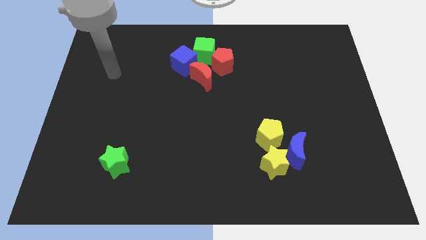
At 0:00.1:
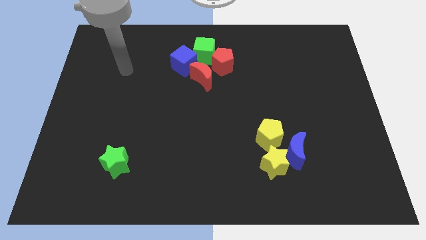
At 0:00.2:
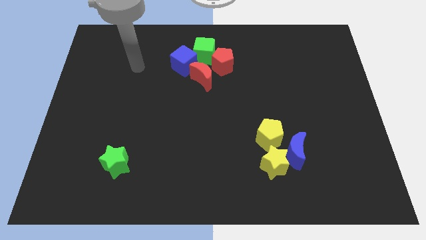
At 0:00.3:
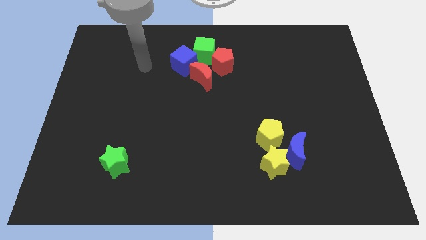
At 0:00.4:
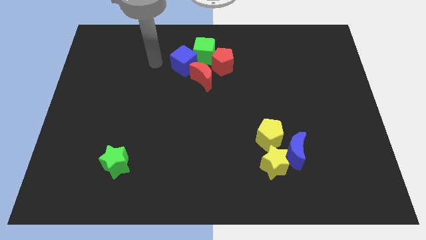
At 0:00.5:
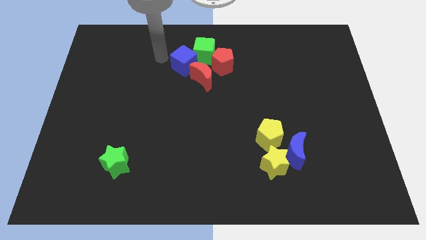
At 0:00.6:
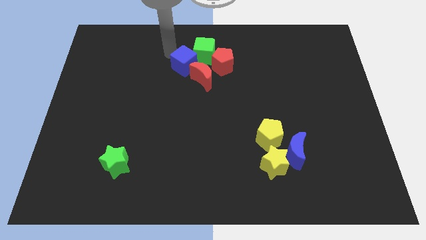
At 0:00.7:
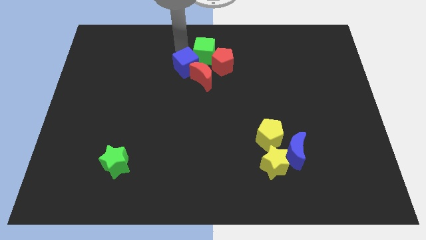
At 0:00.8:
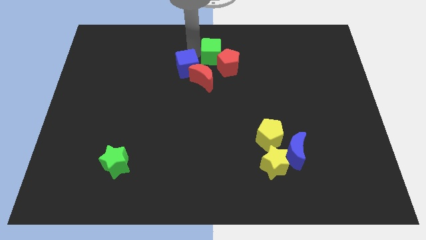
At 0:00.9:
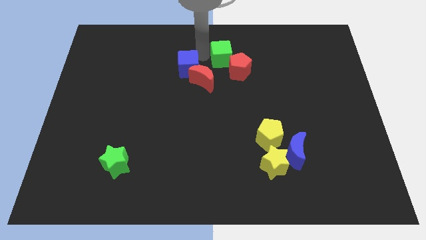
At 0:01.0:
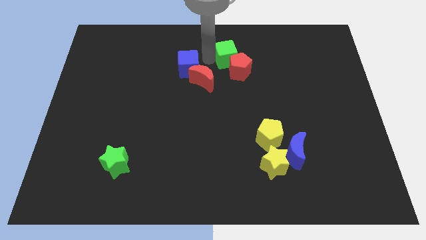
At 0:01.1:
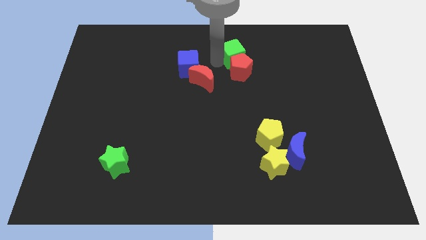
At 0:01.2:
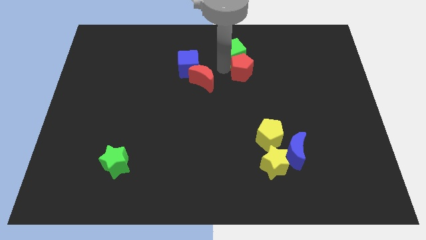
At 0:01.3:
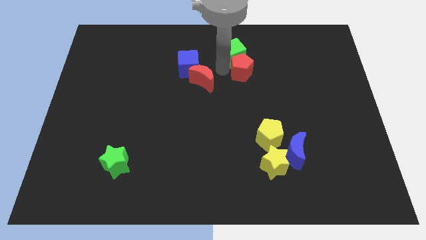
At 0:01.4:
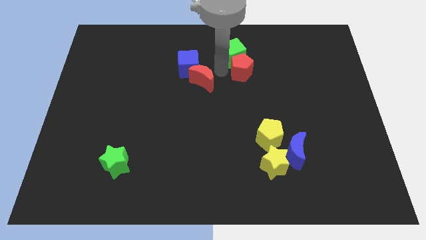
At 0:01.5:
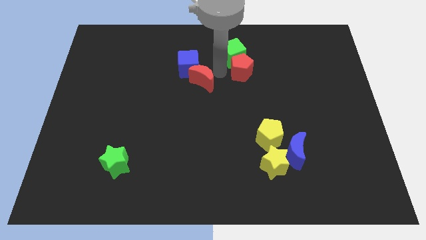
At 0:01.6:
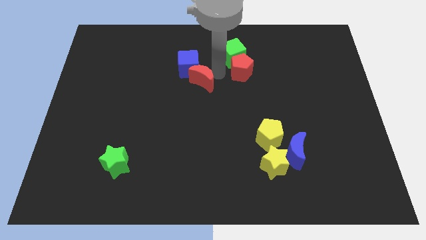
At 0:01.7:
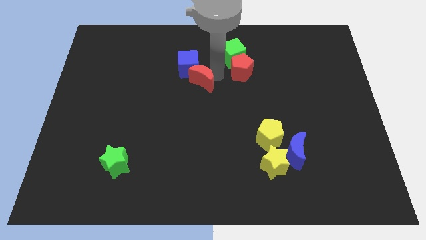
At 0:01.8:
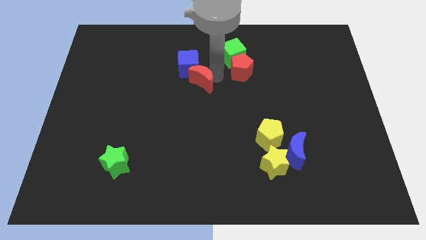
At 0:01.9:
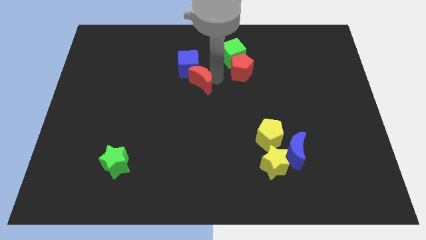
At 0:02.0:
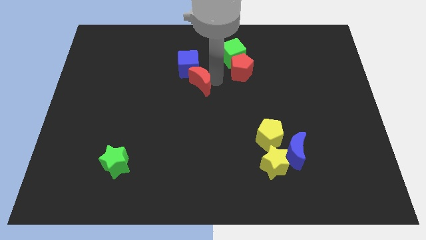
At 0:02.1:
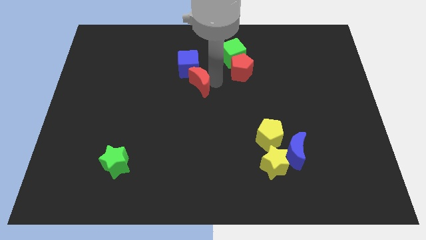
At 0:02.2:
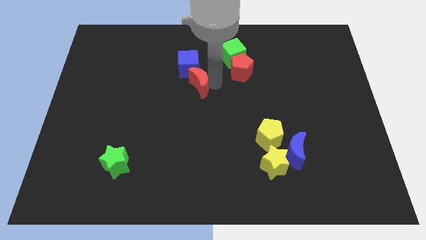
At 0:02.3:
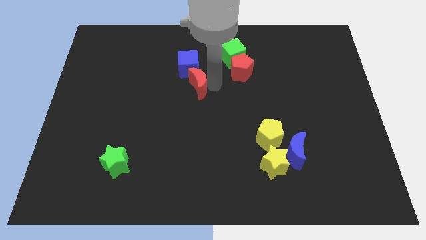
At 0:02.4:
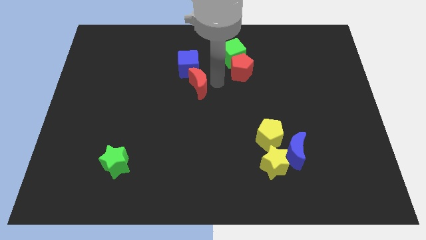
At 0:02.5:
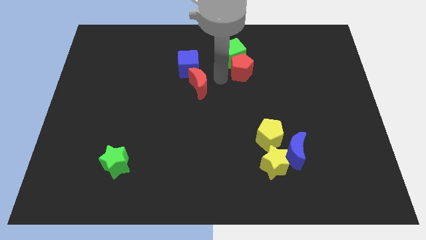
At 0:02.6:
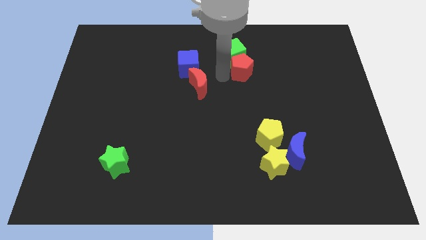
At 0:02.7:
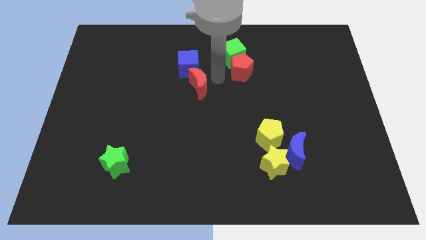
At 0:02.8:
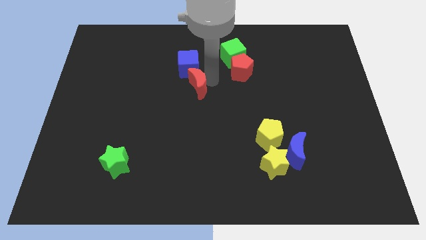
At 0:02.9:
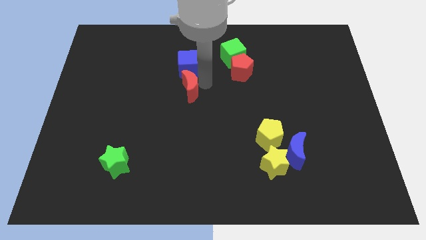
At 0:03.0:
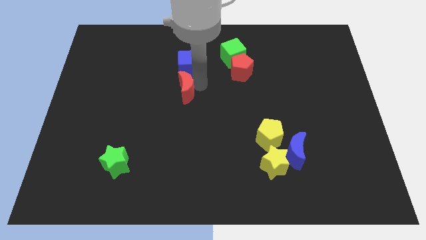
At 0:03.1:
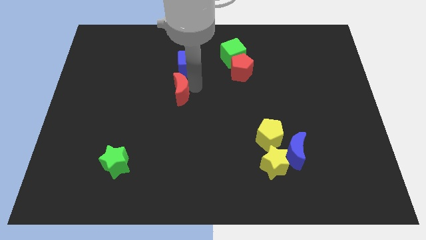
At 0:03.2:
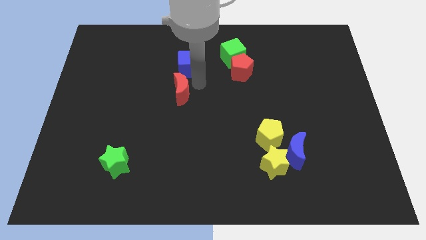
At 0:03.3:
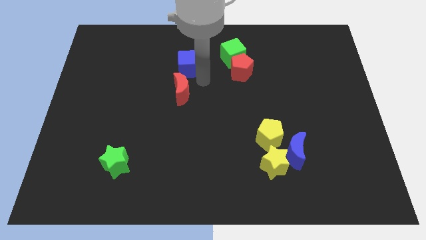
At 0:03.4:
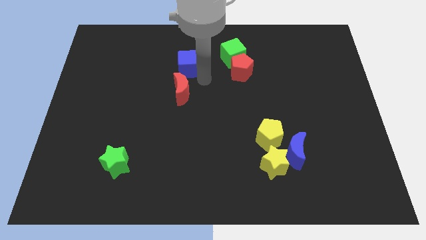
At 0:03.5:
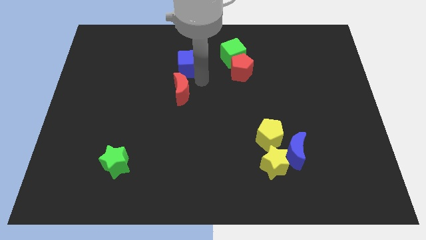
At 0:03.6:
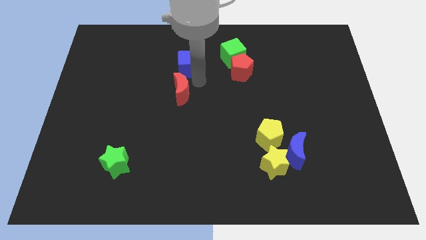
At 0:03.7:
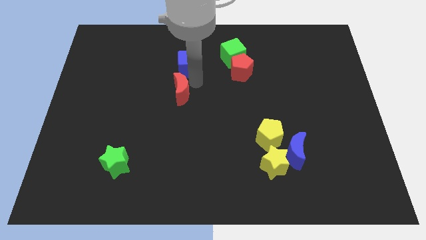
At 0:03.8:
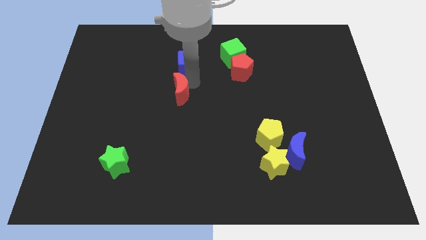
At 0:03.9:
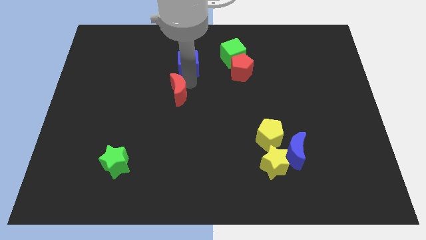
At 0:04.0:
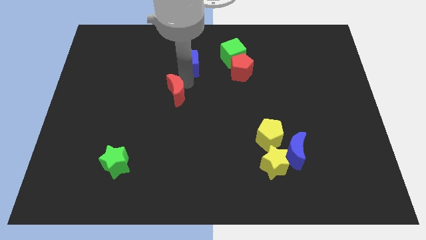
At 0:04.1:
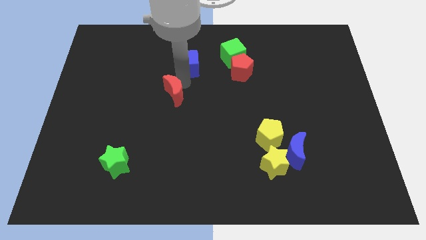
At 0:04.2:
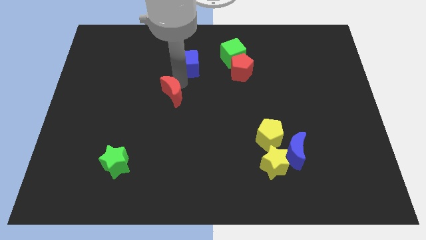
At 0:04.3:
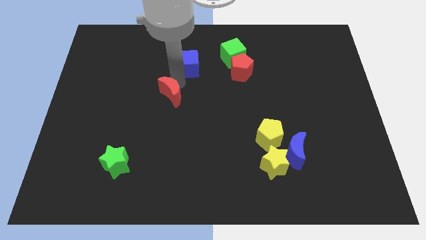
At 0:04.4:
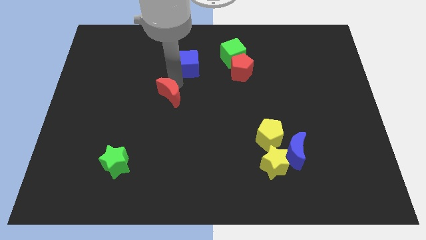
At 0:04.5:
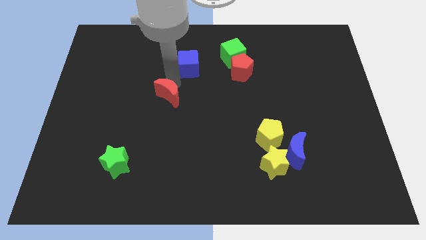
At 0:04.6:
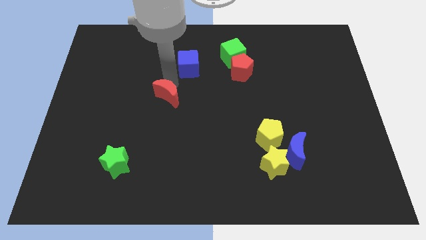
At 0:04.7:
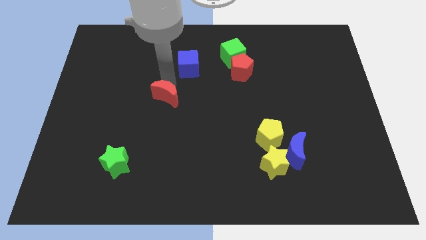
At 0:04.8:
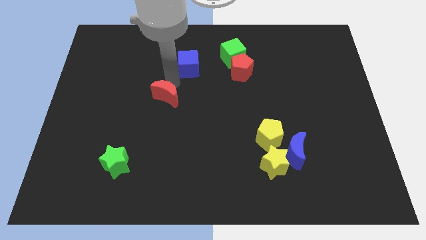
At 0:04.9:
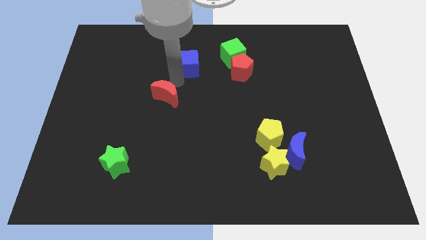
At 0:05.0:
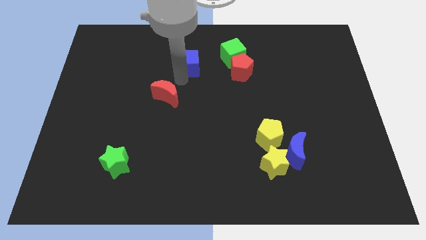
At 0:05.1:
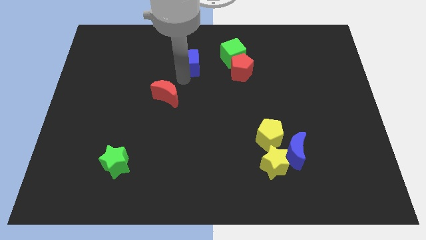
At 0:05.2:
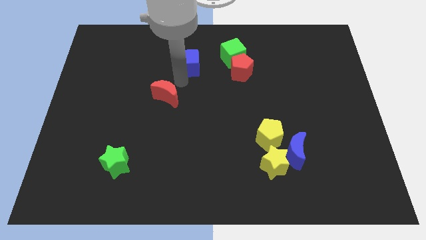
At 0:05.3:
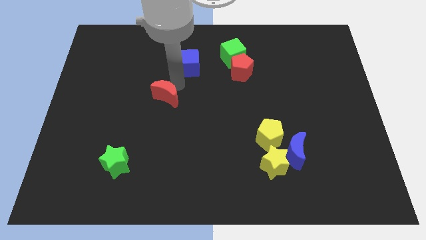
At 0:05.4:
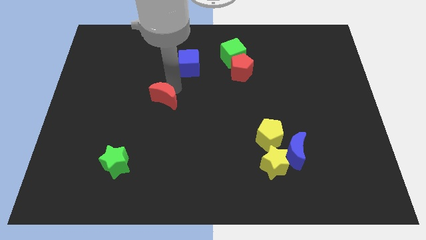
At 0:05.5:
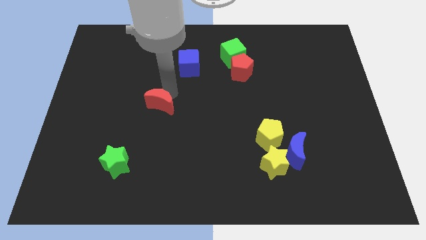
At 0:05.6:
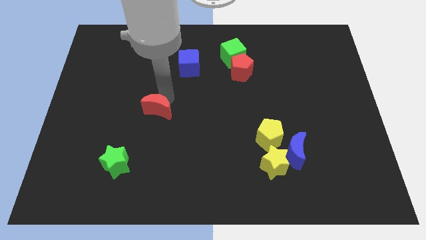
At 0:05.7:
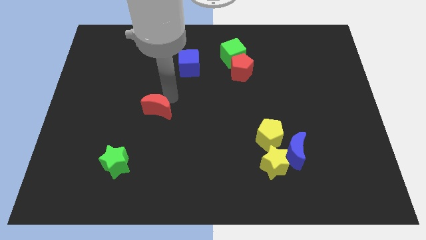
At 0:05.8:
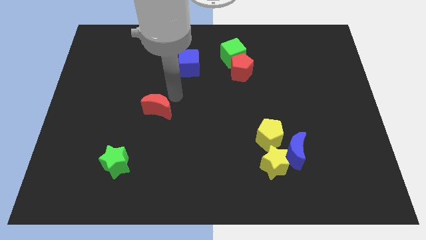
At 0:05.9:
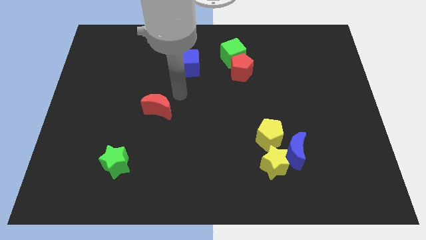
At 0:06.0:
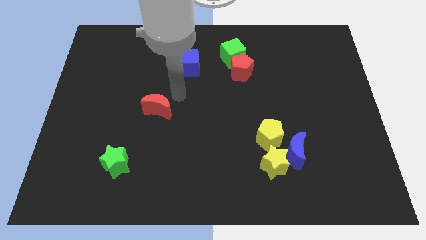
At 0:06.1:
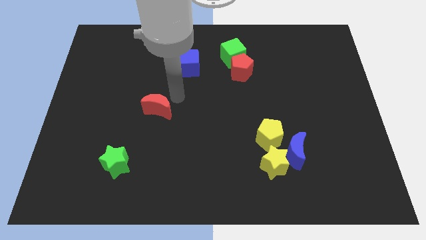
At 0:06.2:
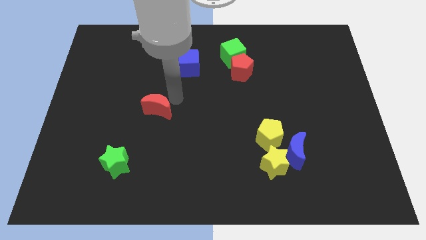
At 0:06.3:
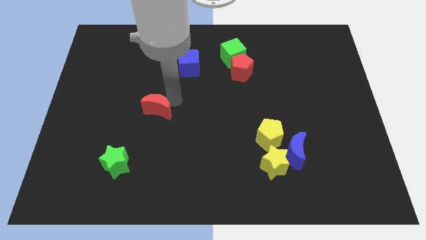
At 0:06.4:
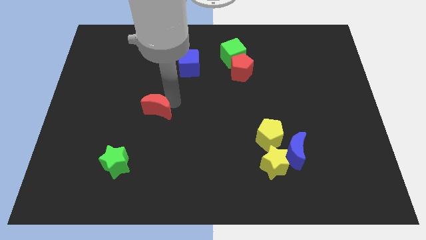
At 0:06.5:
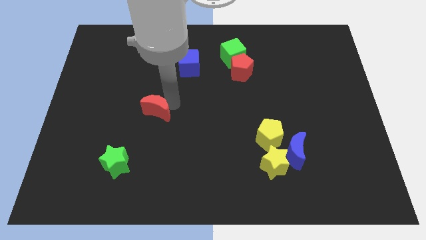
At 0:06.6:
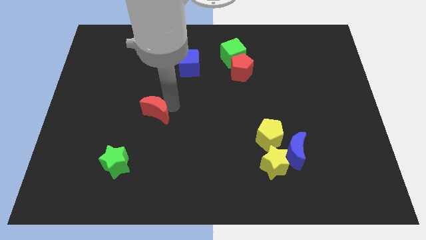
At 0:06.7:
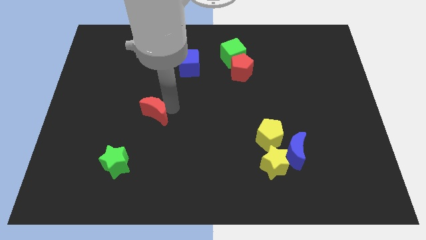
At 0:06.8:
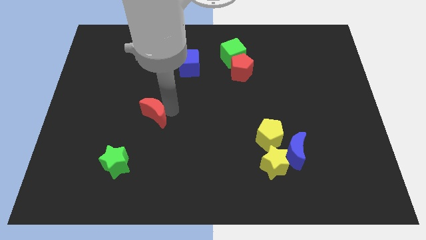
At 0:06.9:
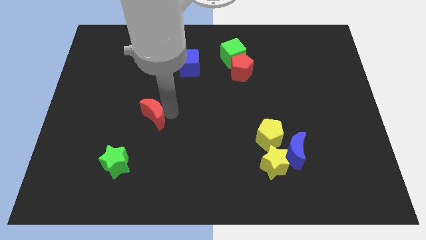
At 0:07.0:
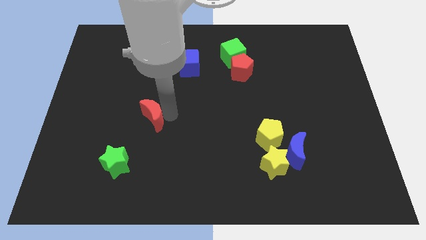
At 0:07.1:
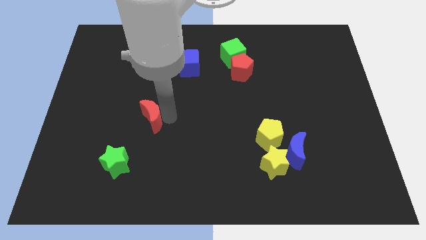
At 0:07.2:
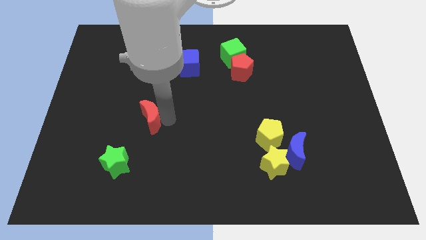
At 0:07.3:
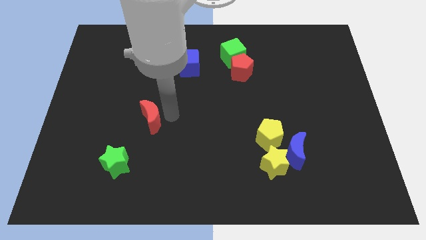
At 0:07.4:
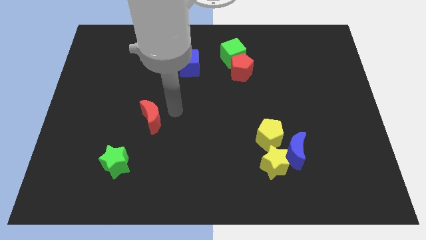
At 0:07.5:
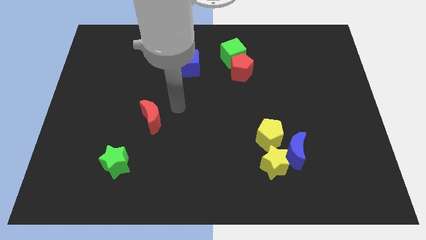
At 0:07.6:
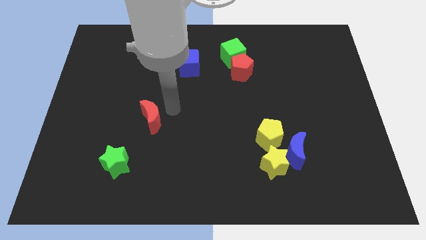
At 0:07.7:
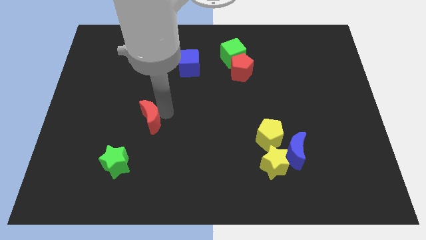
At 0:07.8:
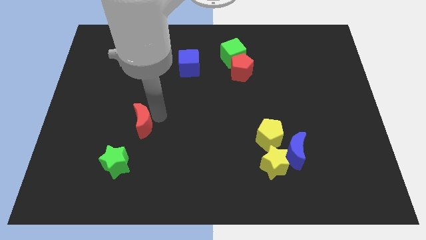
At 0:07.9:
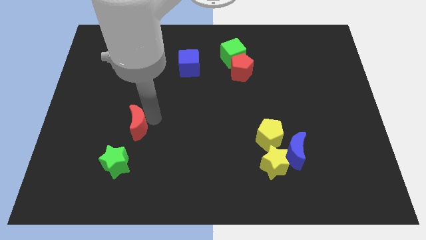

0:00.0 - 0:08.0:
move the red moon down and then to the left
